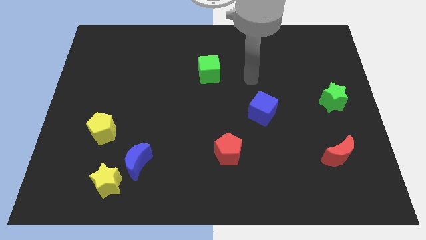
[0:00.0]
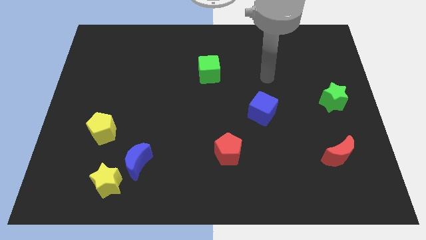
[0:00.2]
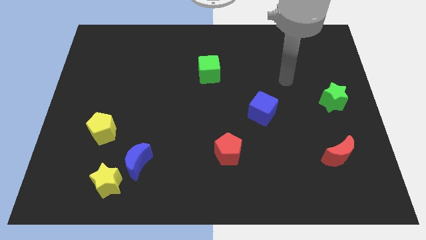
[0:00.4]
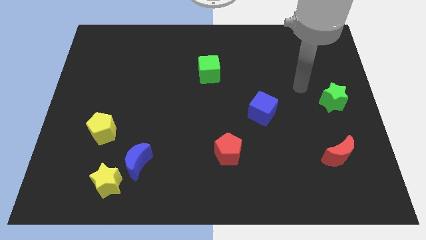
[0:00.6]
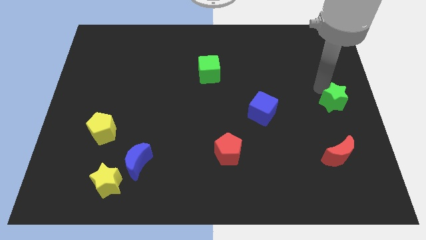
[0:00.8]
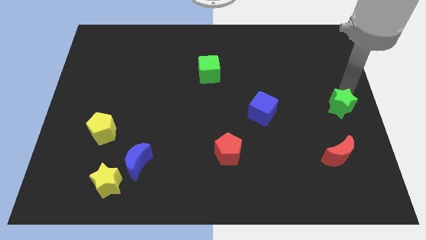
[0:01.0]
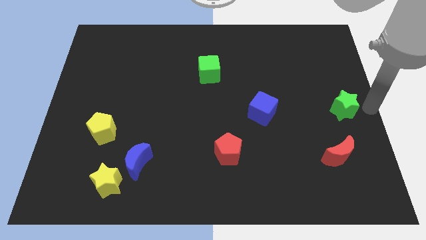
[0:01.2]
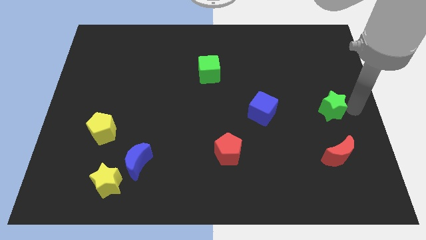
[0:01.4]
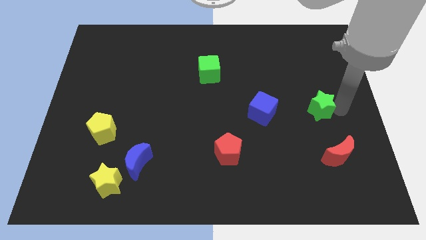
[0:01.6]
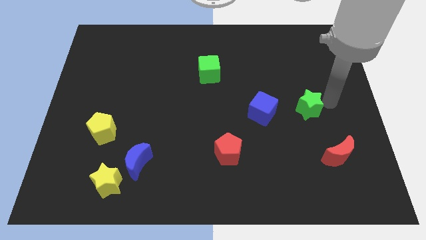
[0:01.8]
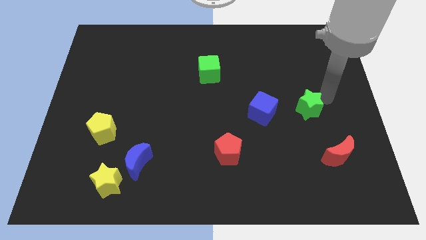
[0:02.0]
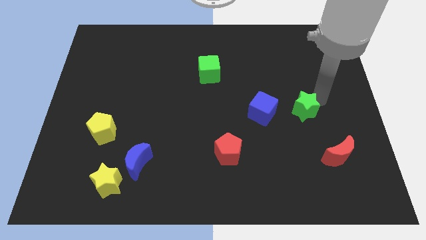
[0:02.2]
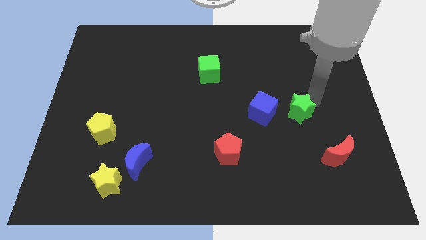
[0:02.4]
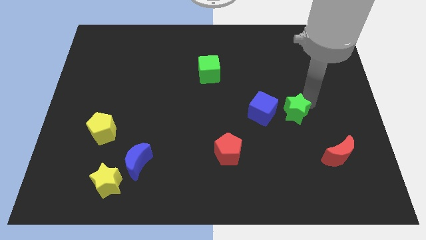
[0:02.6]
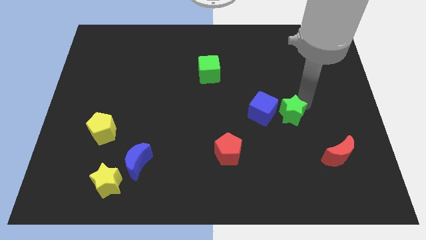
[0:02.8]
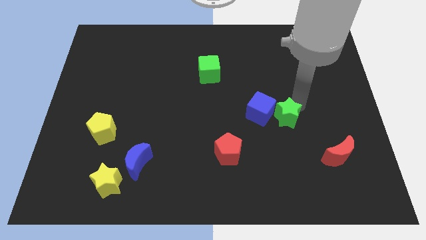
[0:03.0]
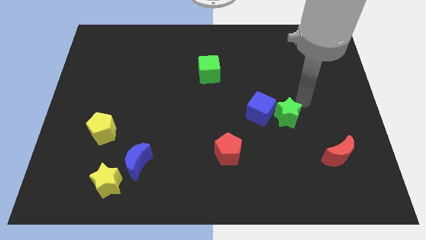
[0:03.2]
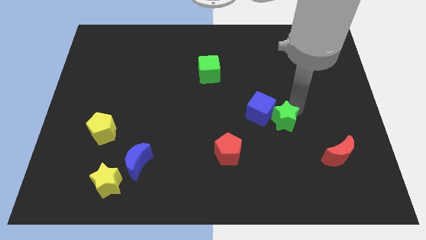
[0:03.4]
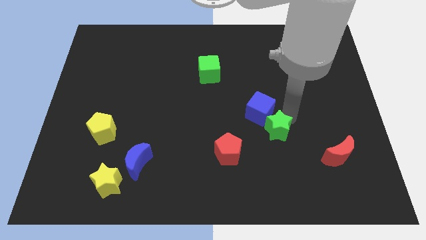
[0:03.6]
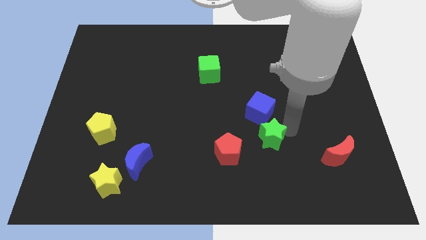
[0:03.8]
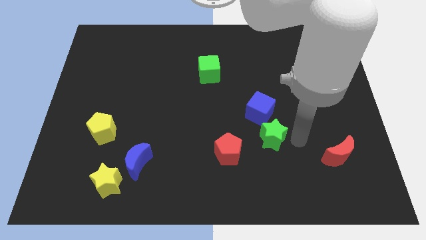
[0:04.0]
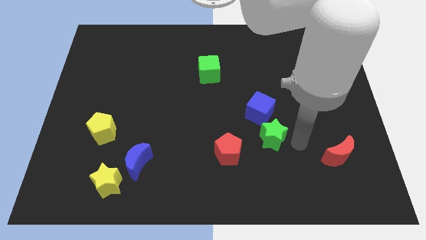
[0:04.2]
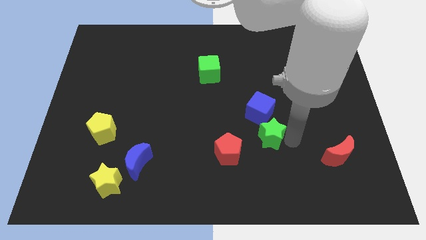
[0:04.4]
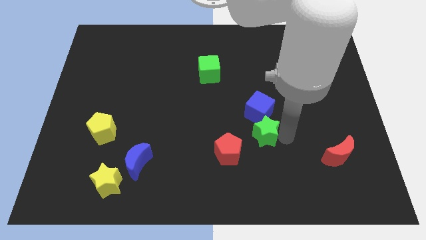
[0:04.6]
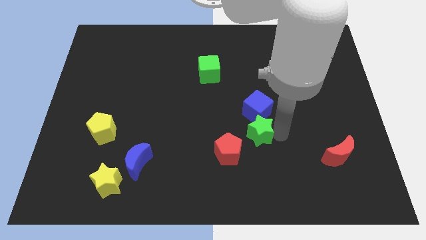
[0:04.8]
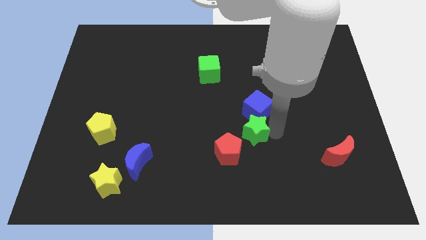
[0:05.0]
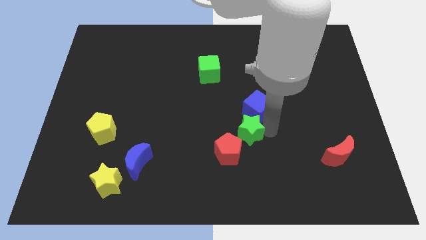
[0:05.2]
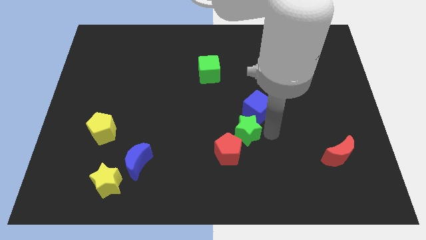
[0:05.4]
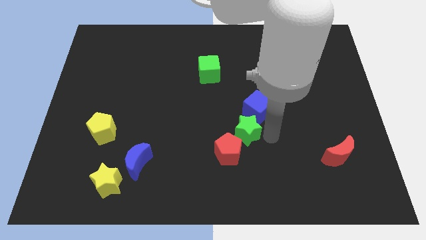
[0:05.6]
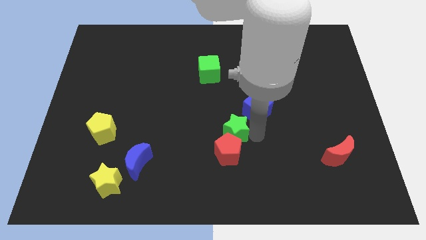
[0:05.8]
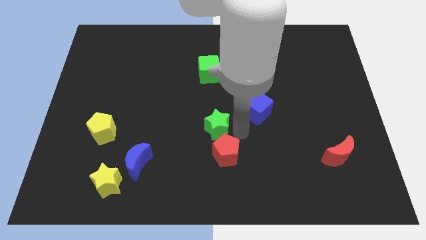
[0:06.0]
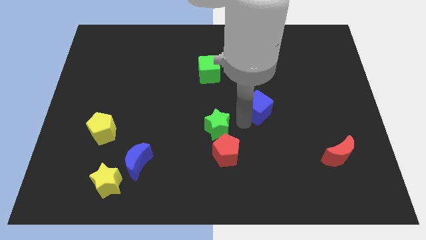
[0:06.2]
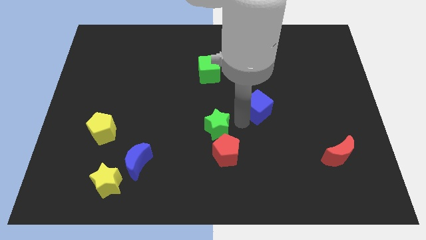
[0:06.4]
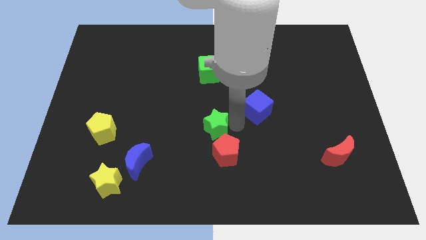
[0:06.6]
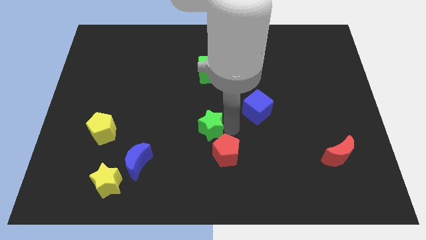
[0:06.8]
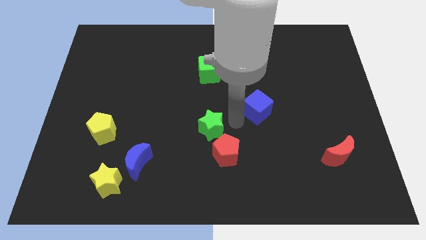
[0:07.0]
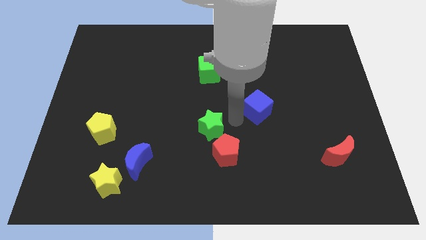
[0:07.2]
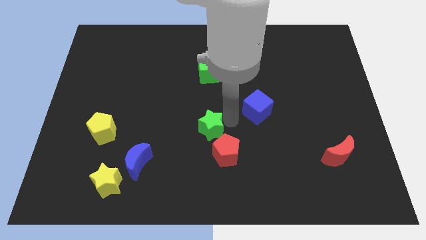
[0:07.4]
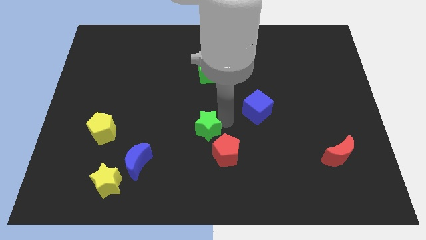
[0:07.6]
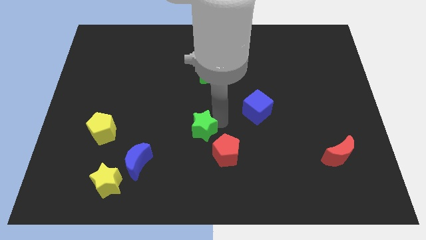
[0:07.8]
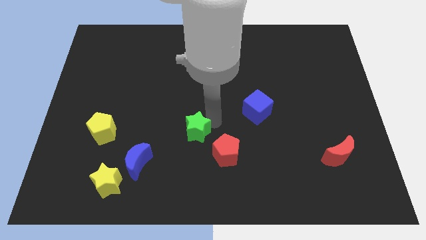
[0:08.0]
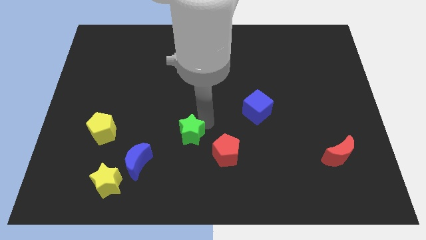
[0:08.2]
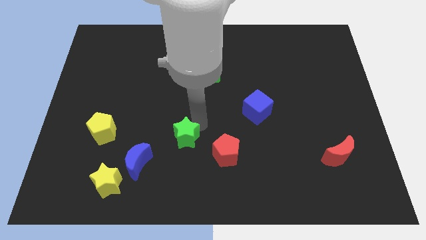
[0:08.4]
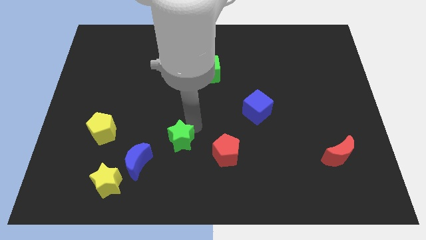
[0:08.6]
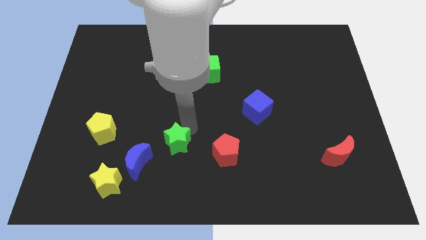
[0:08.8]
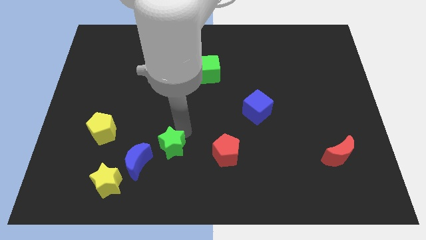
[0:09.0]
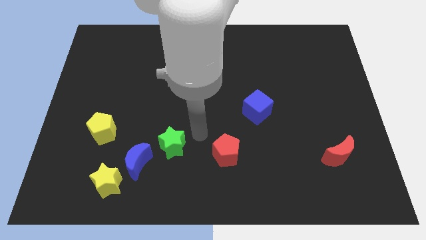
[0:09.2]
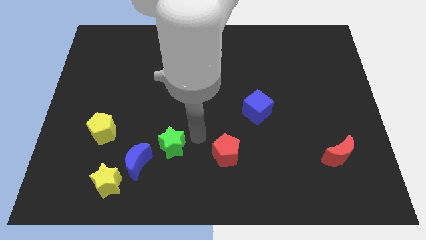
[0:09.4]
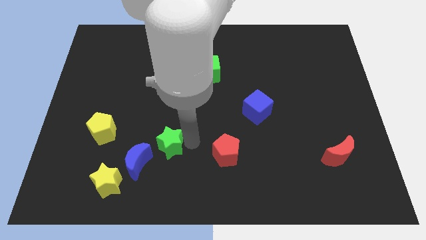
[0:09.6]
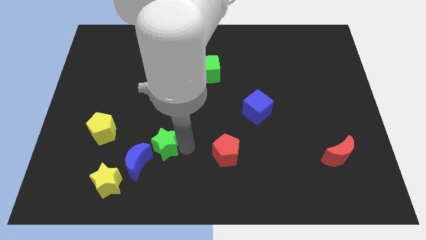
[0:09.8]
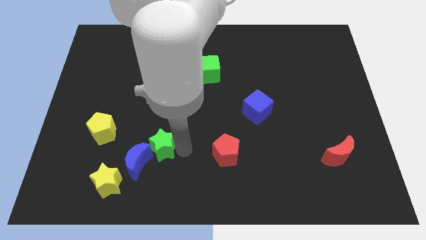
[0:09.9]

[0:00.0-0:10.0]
push the green star close to the blue moon

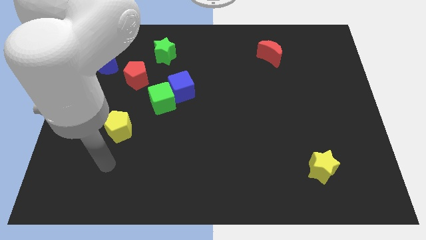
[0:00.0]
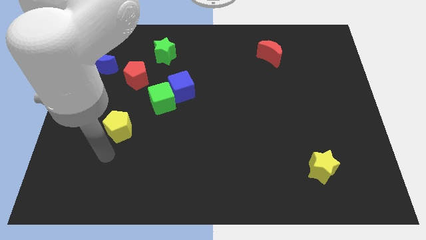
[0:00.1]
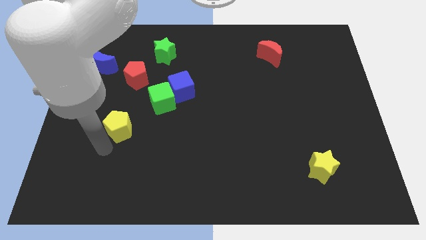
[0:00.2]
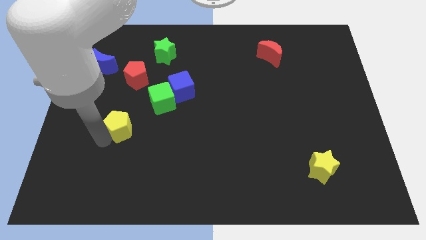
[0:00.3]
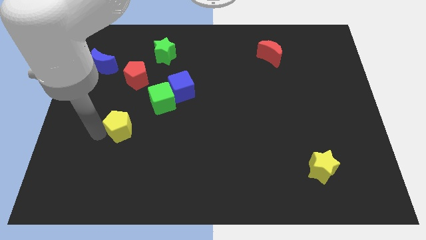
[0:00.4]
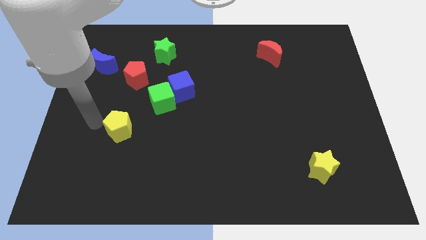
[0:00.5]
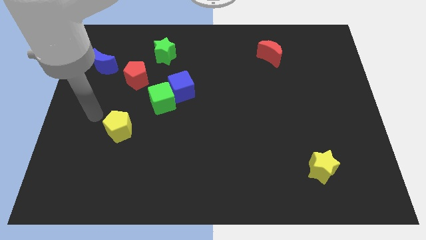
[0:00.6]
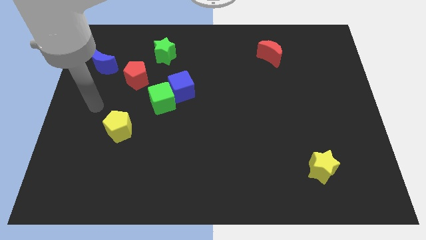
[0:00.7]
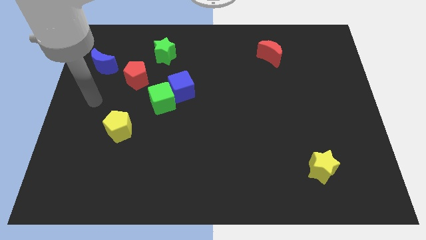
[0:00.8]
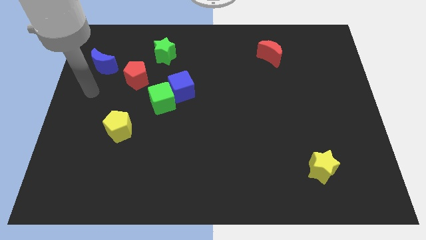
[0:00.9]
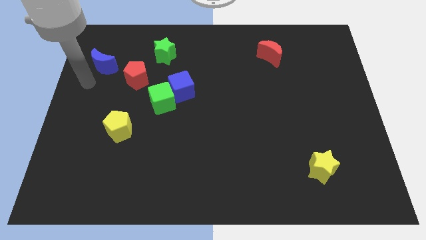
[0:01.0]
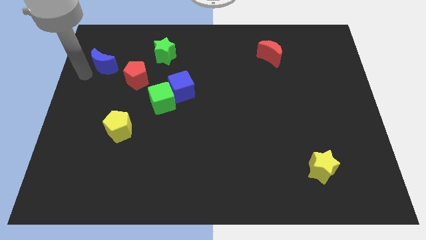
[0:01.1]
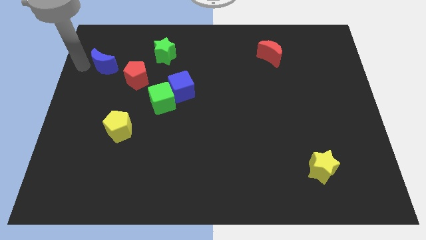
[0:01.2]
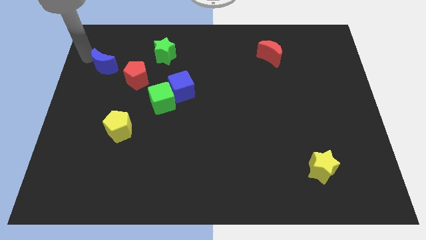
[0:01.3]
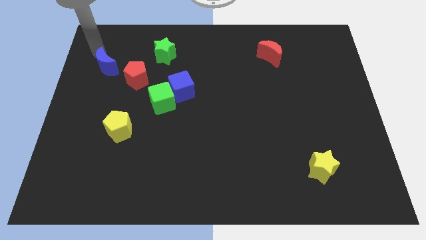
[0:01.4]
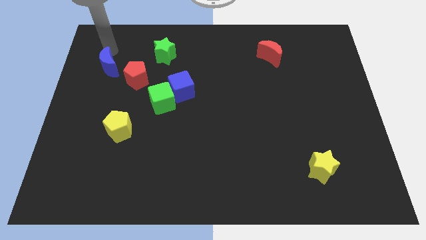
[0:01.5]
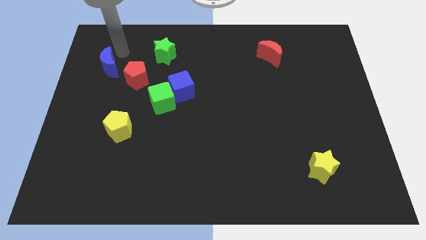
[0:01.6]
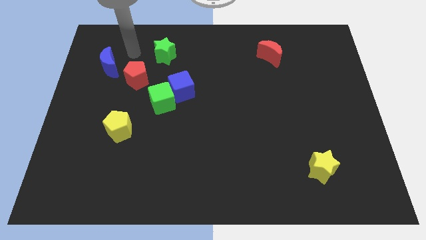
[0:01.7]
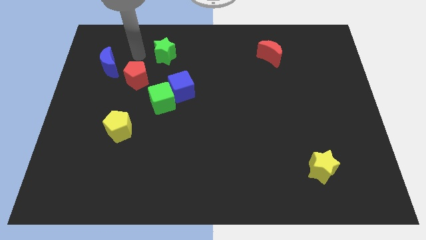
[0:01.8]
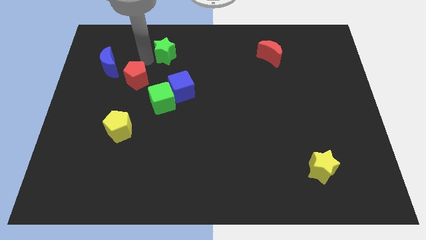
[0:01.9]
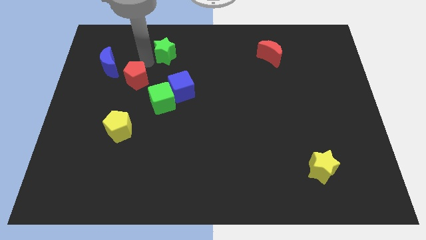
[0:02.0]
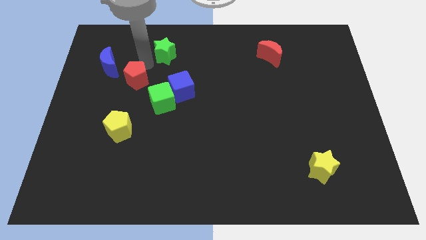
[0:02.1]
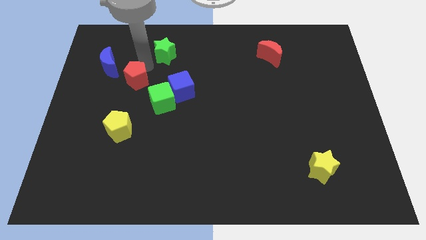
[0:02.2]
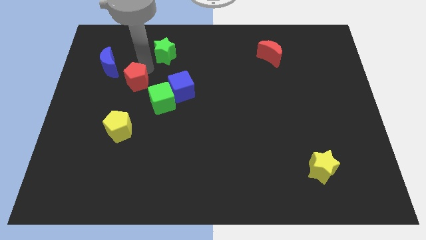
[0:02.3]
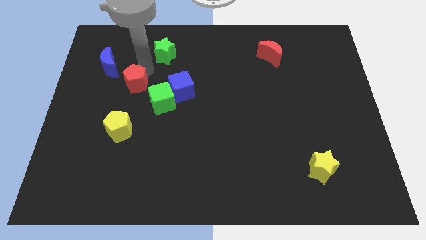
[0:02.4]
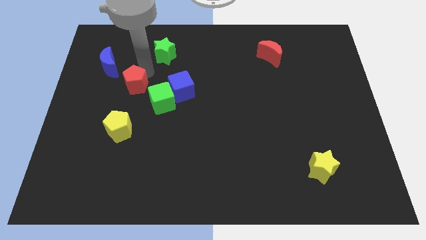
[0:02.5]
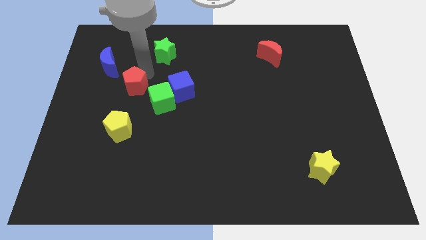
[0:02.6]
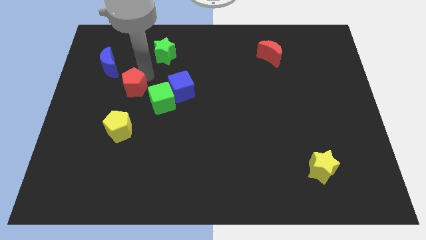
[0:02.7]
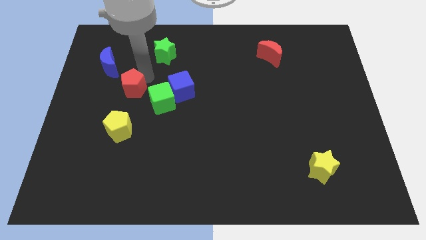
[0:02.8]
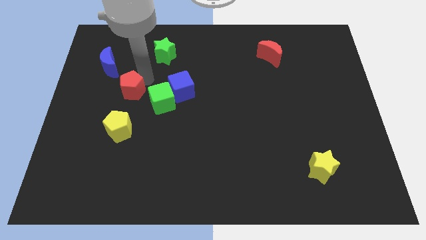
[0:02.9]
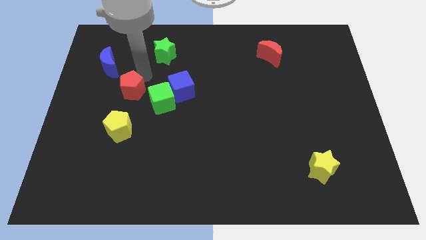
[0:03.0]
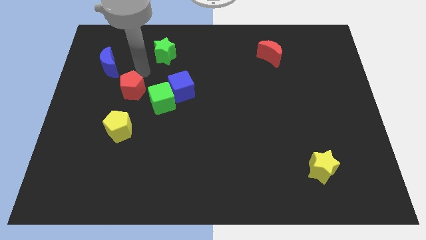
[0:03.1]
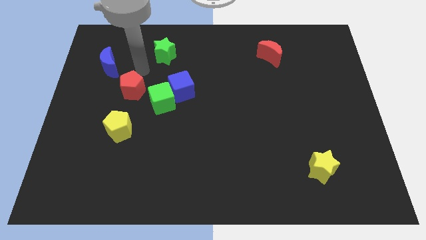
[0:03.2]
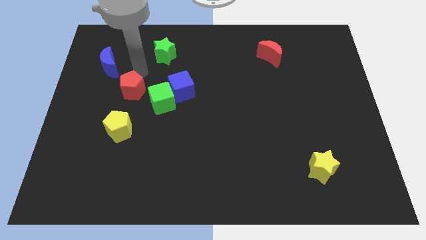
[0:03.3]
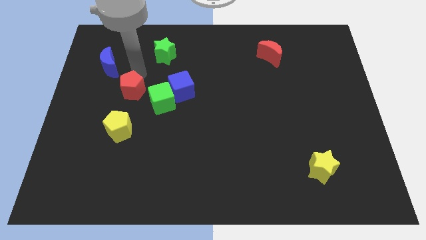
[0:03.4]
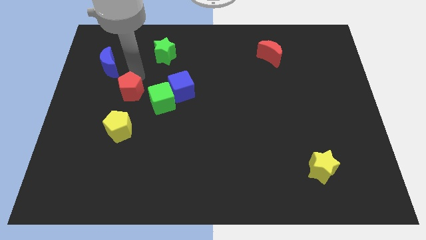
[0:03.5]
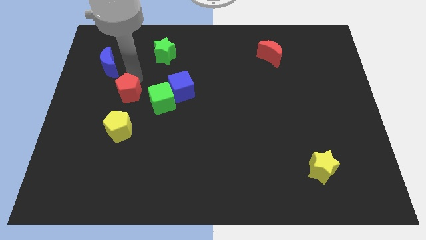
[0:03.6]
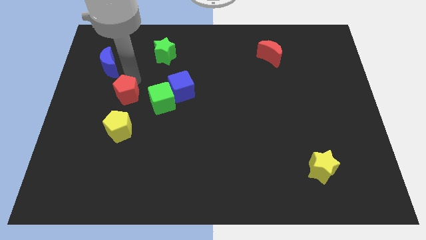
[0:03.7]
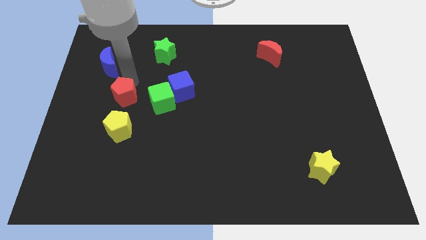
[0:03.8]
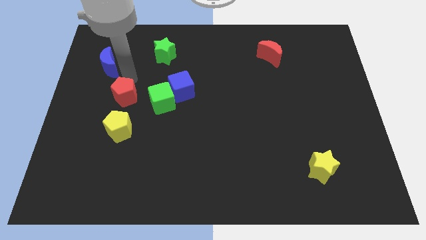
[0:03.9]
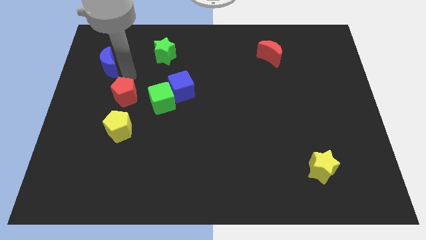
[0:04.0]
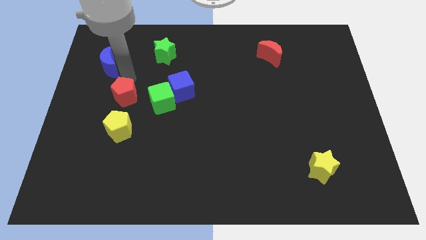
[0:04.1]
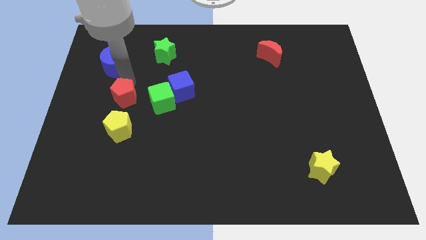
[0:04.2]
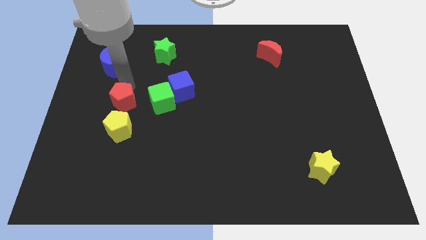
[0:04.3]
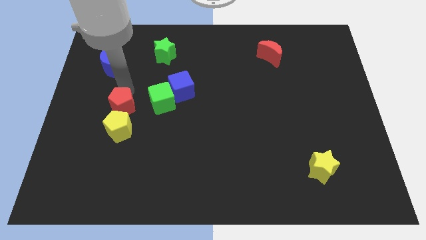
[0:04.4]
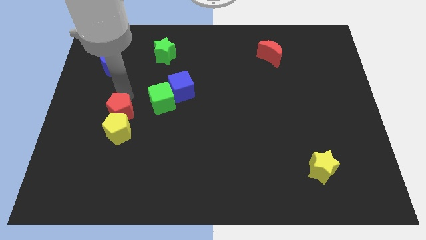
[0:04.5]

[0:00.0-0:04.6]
slide the red pentagon next to the yellow pentagon
